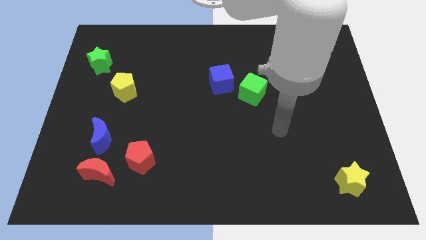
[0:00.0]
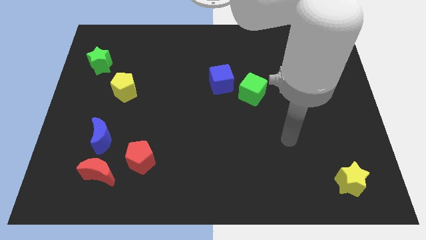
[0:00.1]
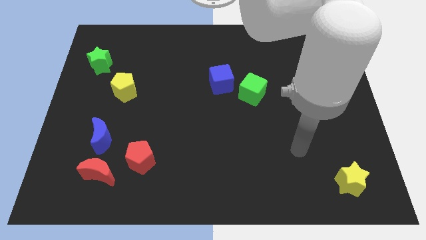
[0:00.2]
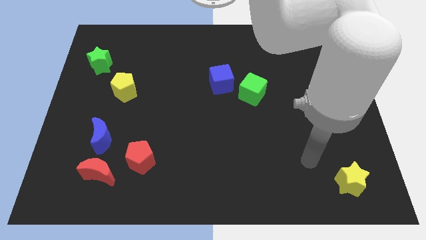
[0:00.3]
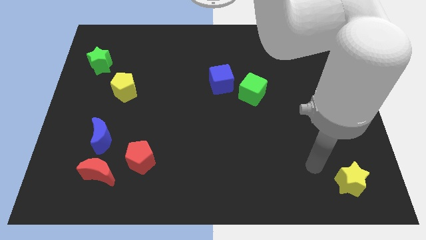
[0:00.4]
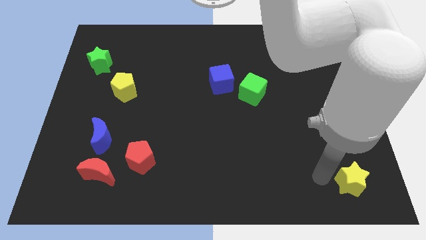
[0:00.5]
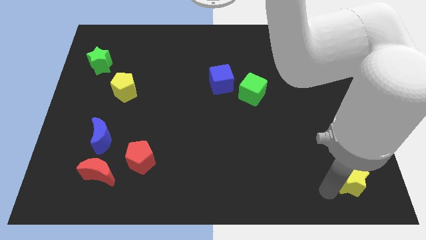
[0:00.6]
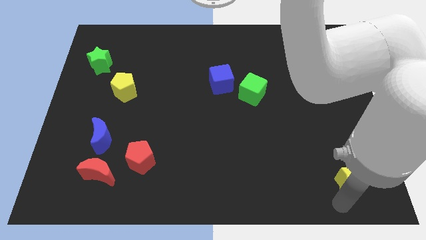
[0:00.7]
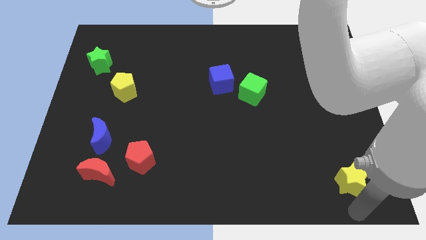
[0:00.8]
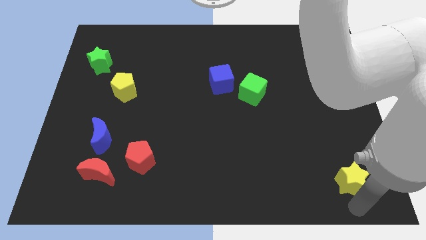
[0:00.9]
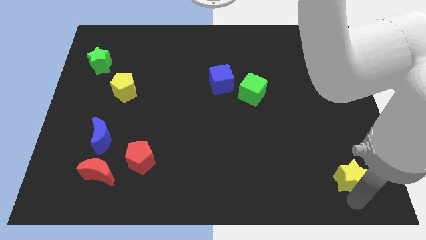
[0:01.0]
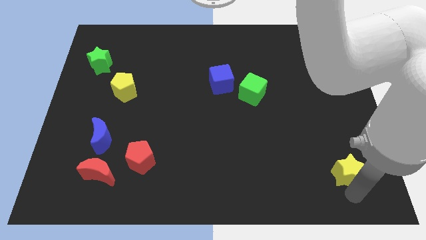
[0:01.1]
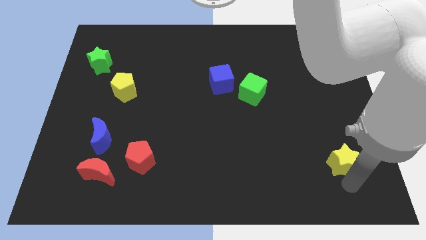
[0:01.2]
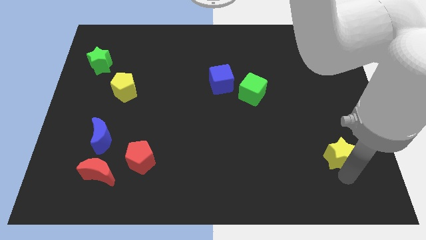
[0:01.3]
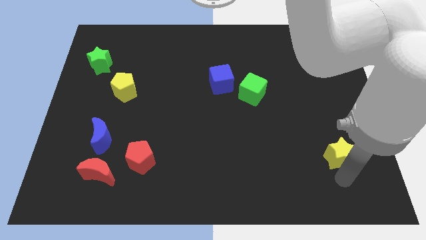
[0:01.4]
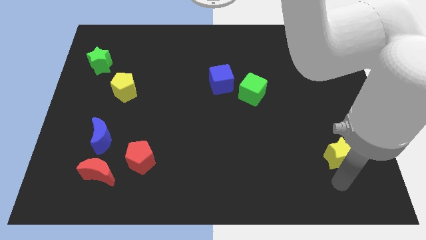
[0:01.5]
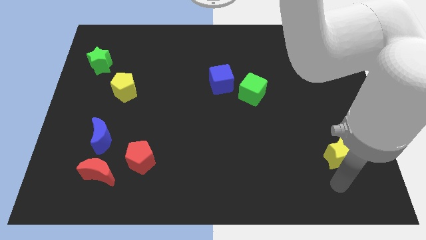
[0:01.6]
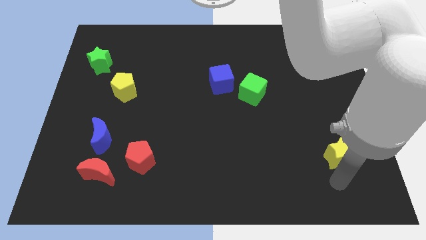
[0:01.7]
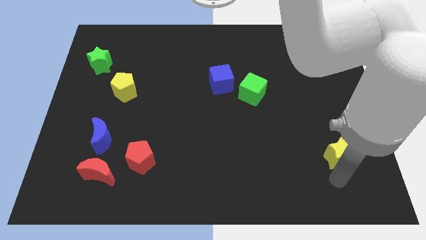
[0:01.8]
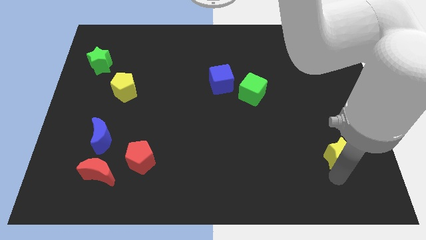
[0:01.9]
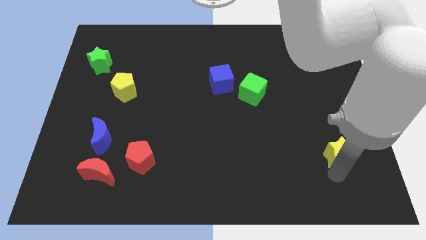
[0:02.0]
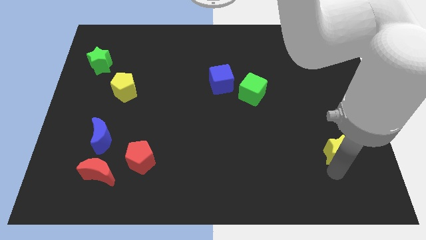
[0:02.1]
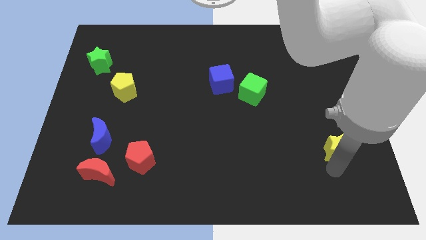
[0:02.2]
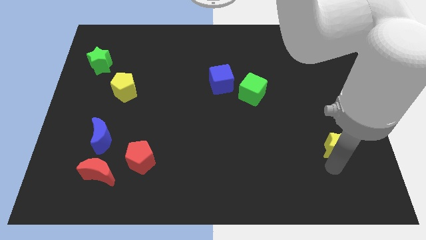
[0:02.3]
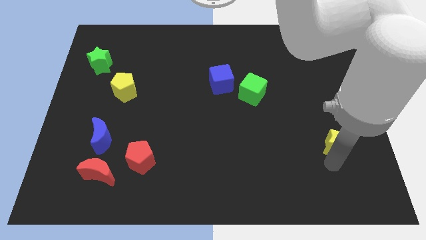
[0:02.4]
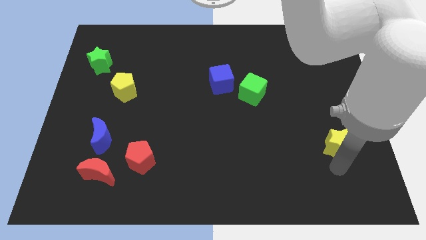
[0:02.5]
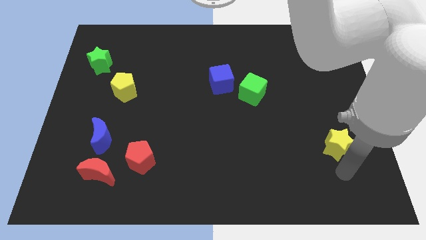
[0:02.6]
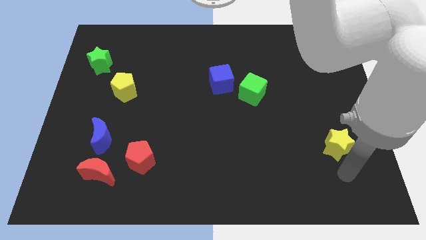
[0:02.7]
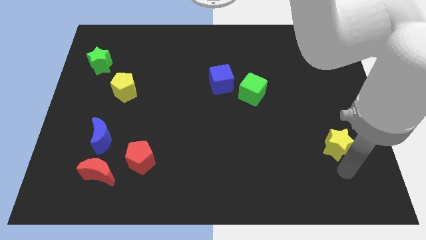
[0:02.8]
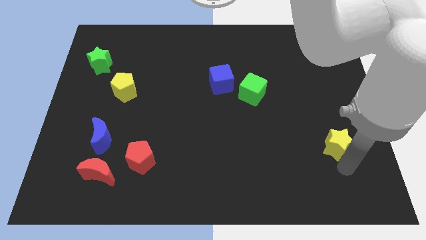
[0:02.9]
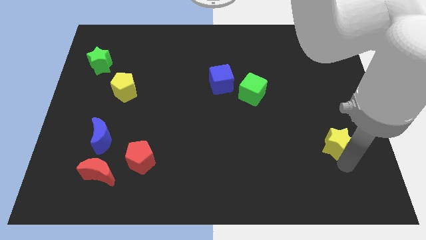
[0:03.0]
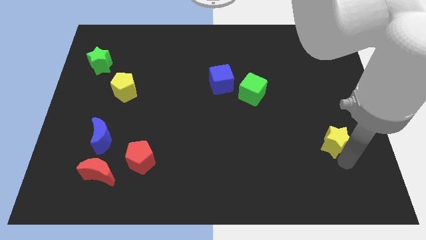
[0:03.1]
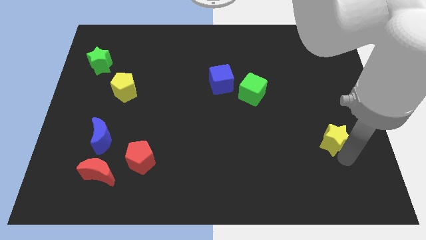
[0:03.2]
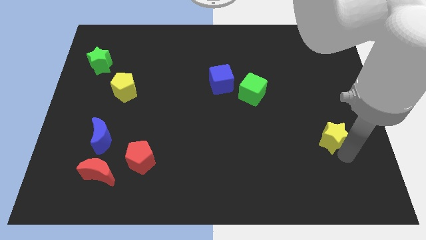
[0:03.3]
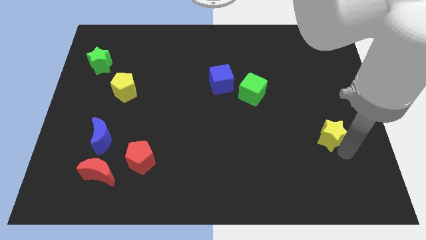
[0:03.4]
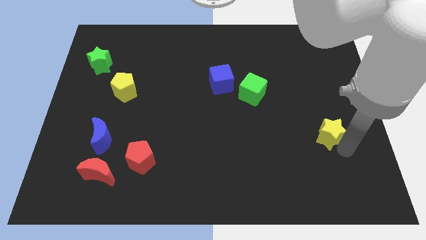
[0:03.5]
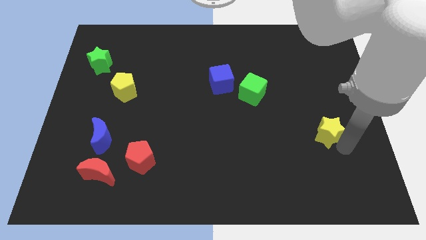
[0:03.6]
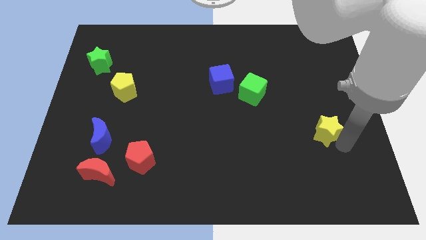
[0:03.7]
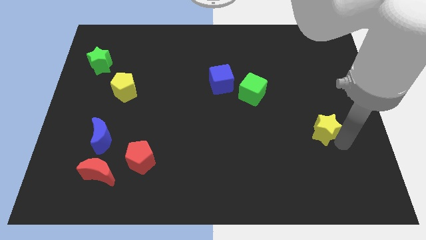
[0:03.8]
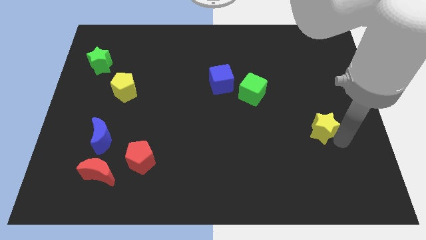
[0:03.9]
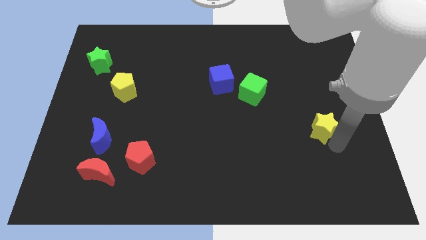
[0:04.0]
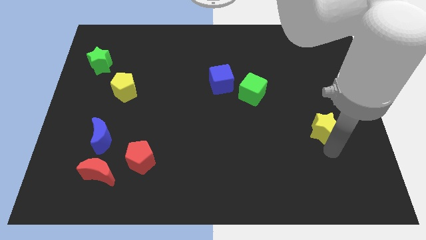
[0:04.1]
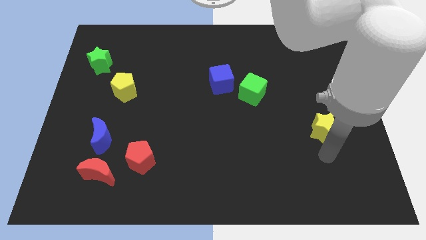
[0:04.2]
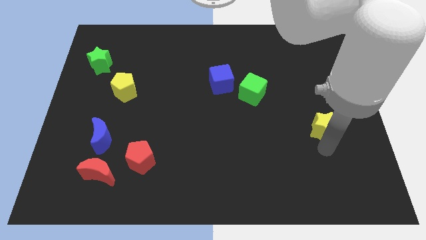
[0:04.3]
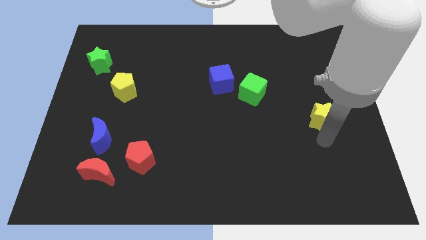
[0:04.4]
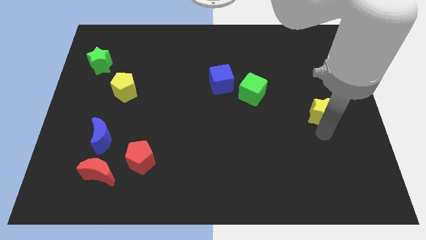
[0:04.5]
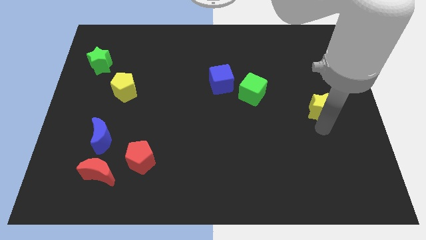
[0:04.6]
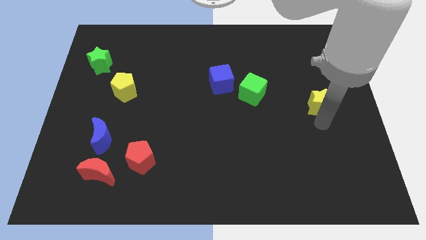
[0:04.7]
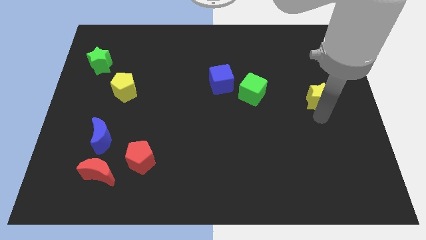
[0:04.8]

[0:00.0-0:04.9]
move the yellow star upwards

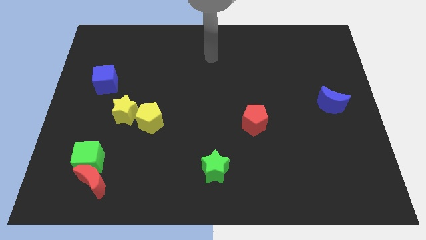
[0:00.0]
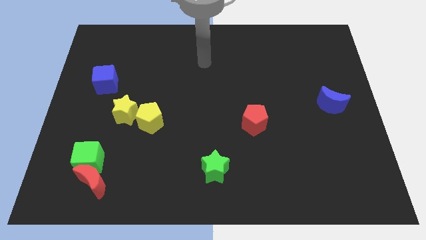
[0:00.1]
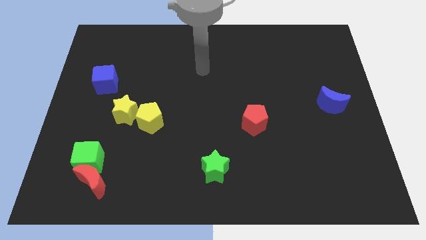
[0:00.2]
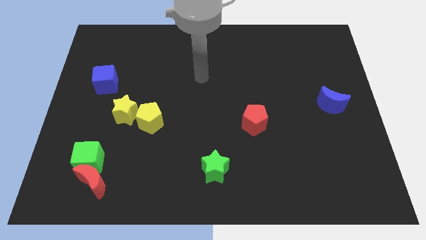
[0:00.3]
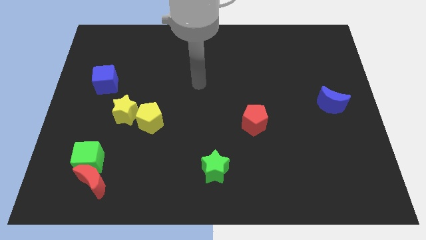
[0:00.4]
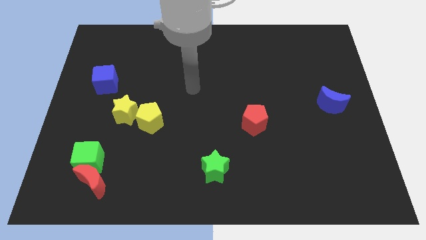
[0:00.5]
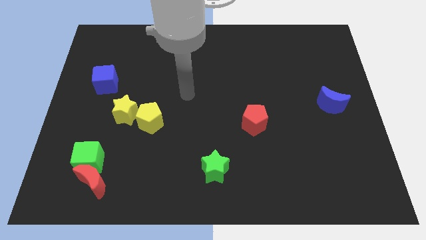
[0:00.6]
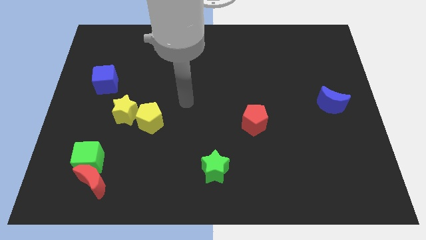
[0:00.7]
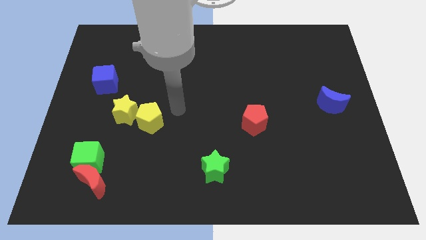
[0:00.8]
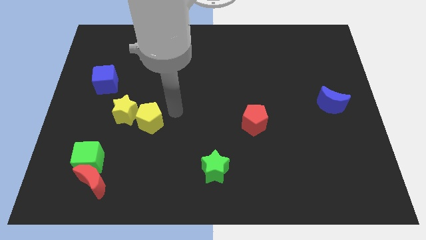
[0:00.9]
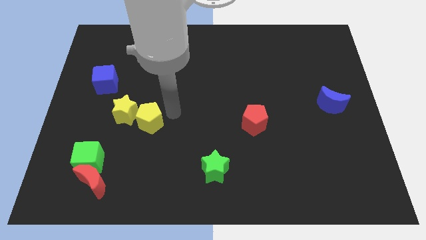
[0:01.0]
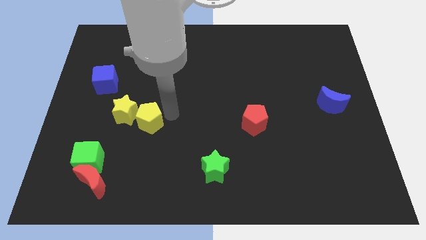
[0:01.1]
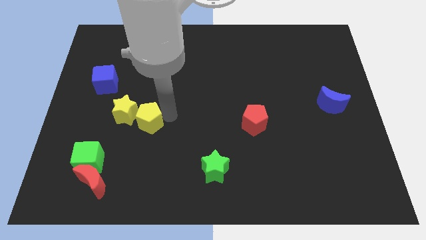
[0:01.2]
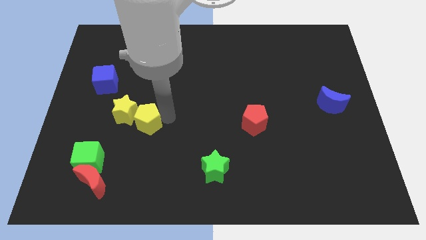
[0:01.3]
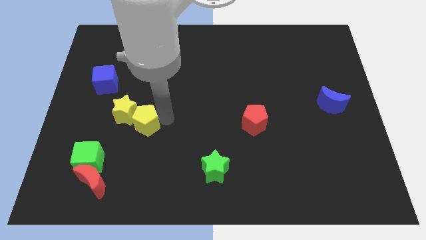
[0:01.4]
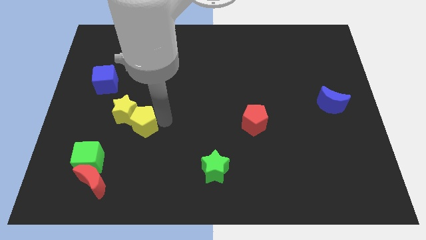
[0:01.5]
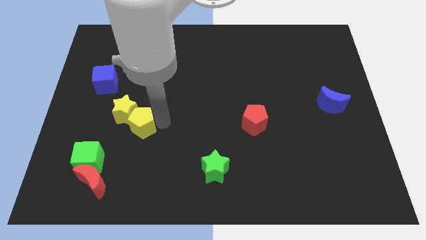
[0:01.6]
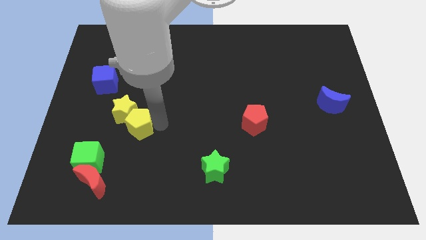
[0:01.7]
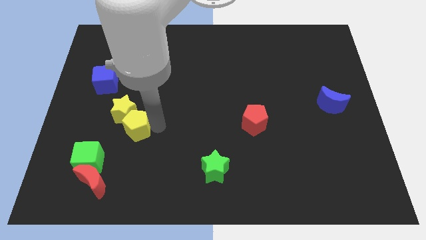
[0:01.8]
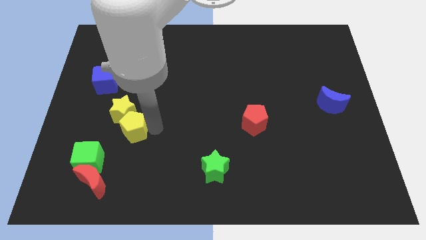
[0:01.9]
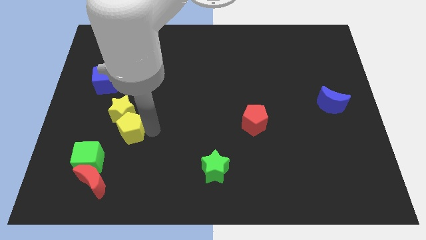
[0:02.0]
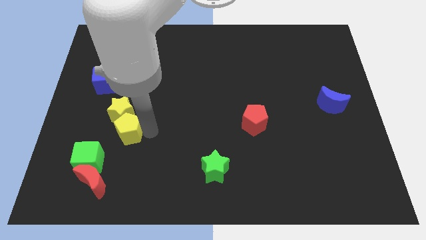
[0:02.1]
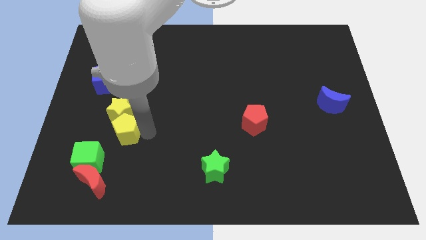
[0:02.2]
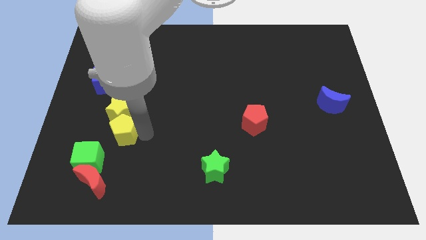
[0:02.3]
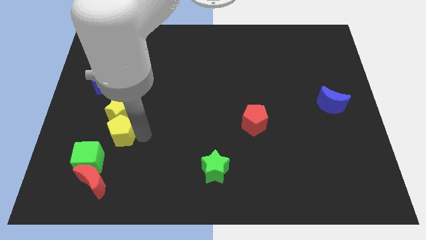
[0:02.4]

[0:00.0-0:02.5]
slide the yellow pentagon a bit down and left

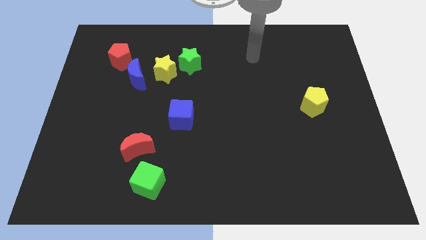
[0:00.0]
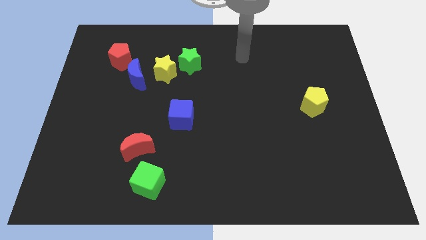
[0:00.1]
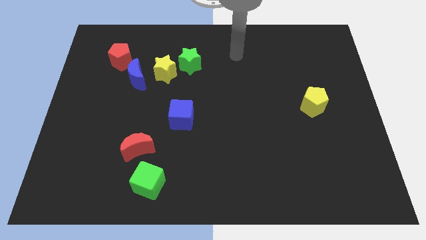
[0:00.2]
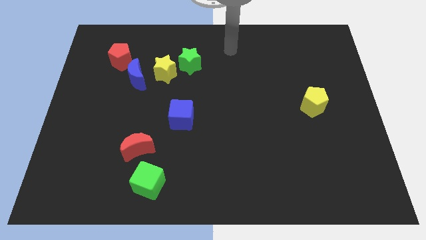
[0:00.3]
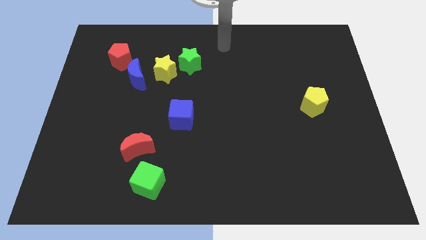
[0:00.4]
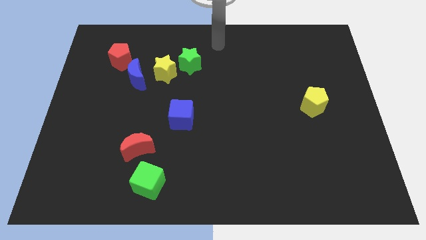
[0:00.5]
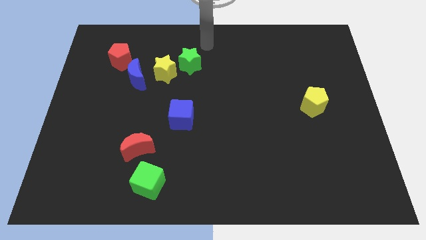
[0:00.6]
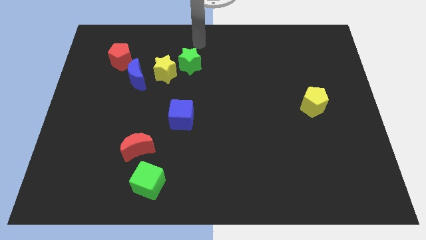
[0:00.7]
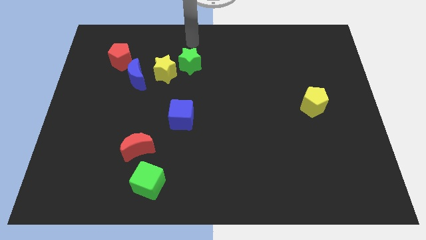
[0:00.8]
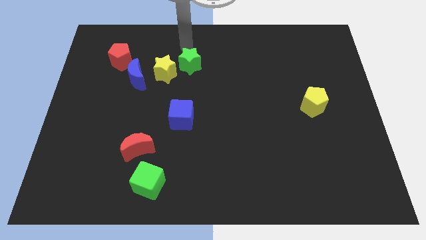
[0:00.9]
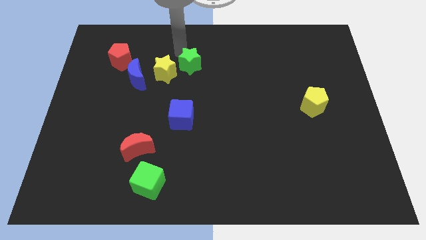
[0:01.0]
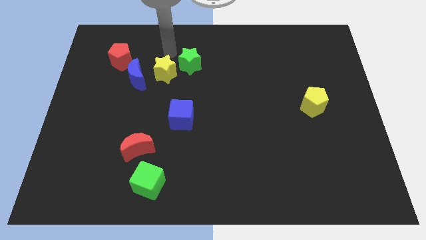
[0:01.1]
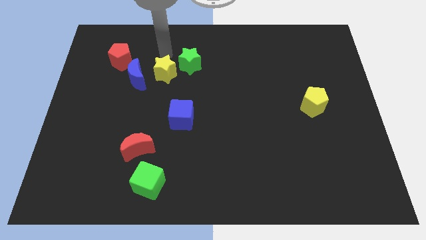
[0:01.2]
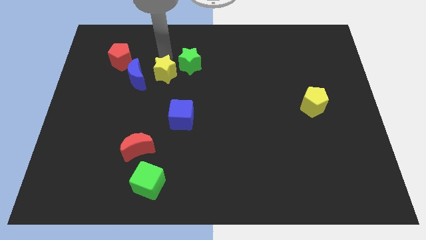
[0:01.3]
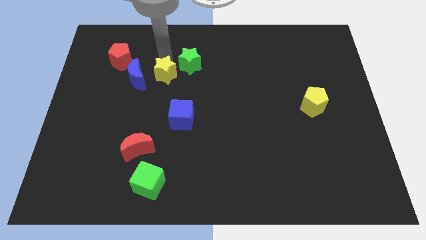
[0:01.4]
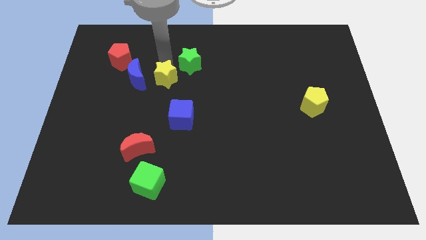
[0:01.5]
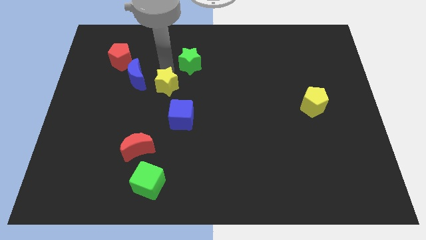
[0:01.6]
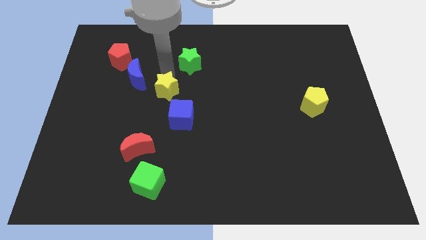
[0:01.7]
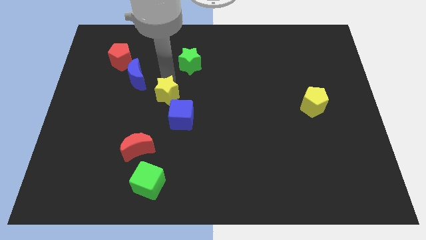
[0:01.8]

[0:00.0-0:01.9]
slightly push the yellow star downwards
